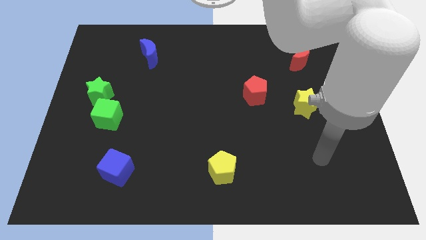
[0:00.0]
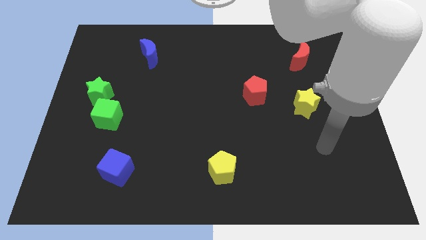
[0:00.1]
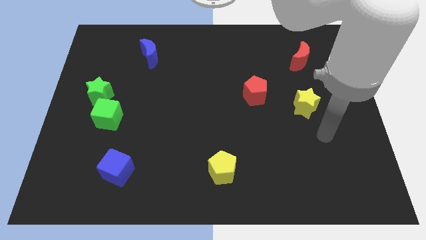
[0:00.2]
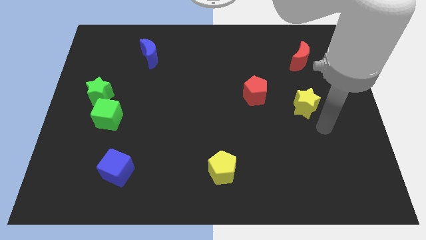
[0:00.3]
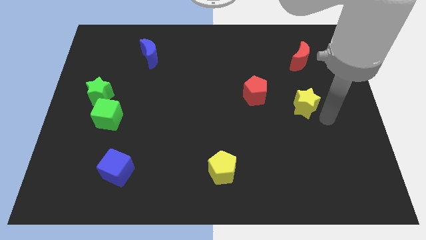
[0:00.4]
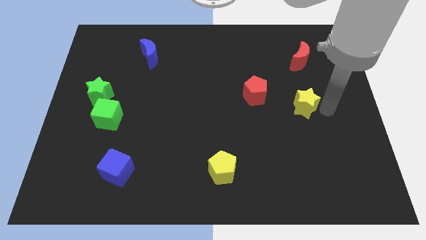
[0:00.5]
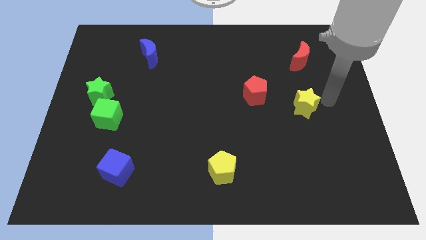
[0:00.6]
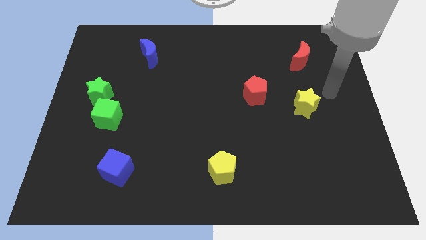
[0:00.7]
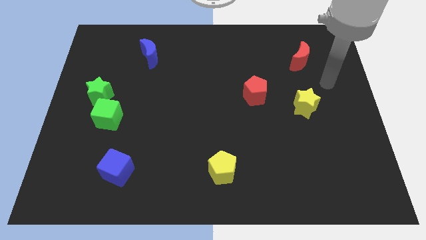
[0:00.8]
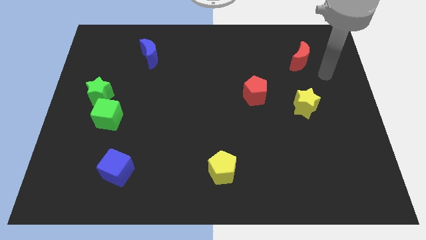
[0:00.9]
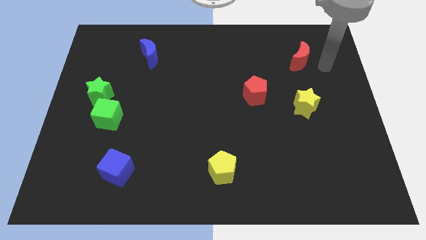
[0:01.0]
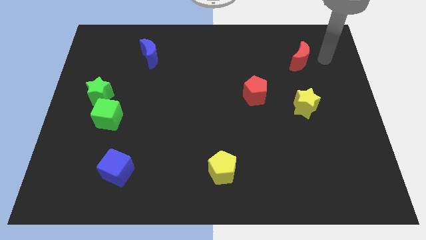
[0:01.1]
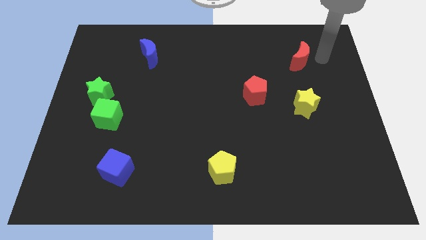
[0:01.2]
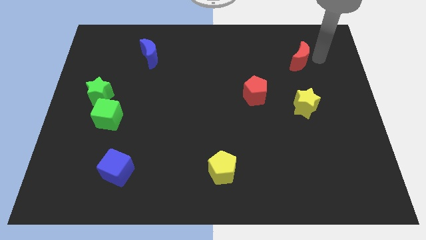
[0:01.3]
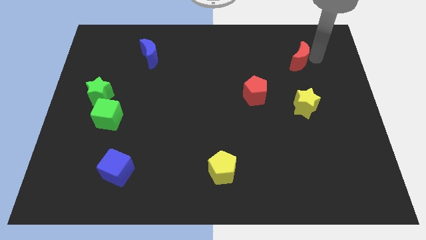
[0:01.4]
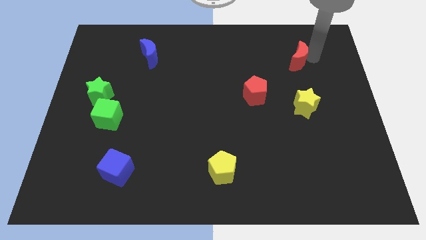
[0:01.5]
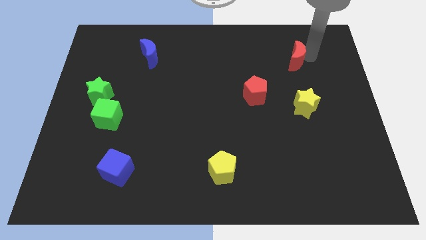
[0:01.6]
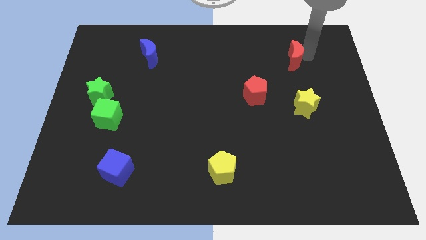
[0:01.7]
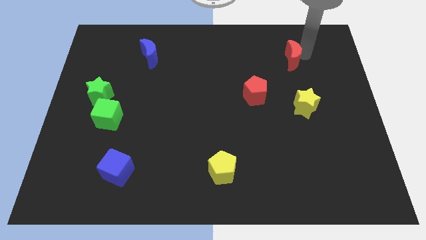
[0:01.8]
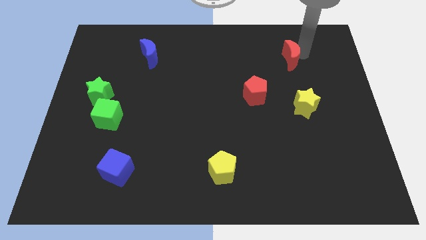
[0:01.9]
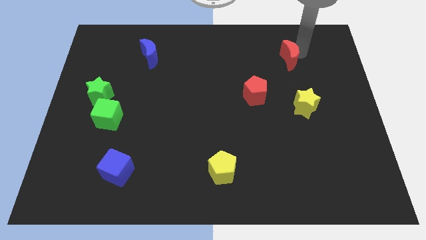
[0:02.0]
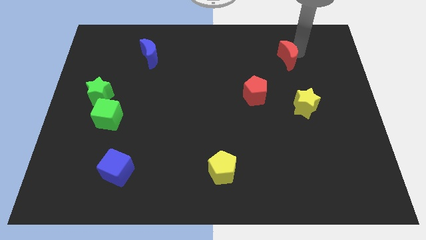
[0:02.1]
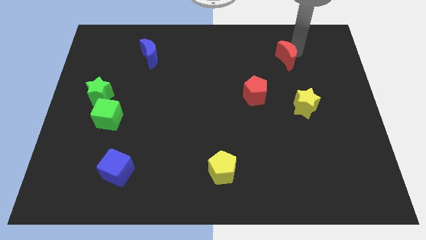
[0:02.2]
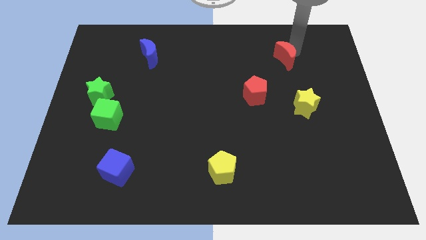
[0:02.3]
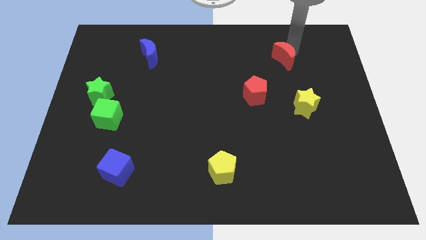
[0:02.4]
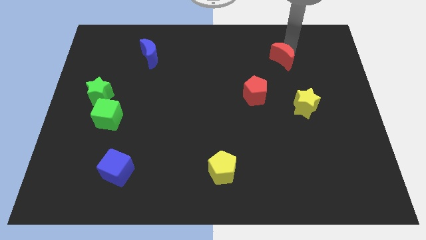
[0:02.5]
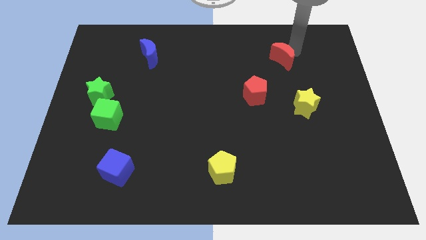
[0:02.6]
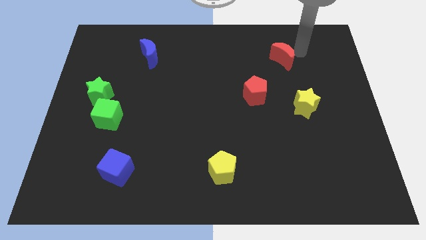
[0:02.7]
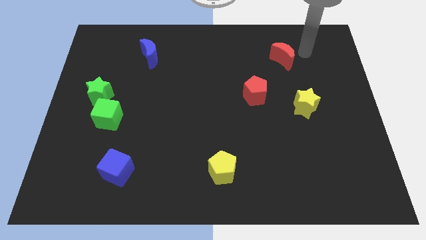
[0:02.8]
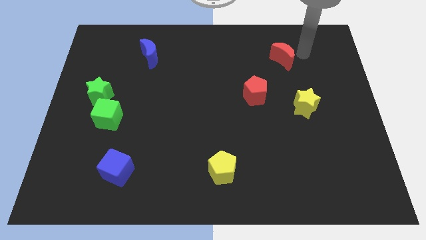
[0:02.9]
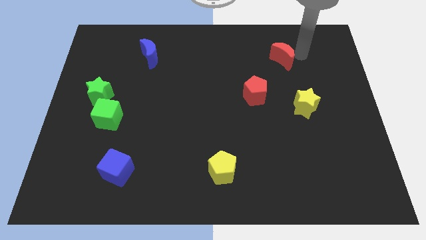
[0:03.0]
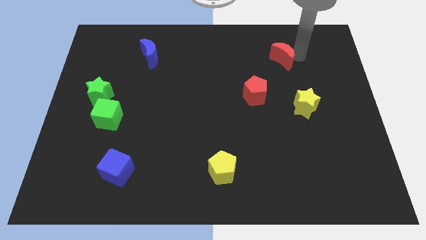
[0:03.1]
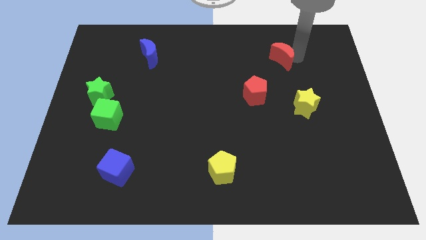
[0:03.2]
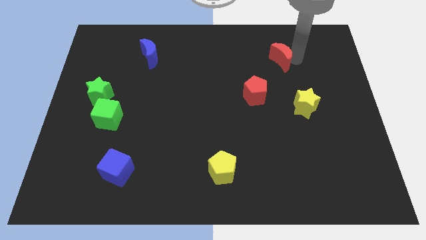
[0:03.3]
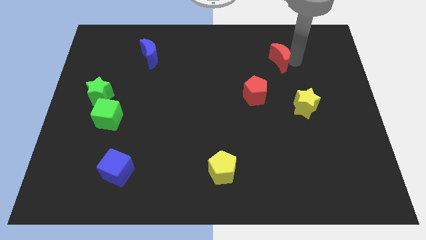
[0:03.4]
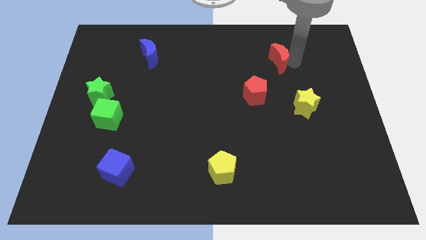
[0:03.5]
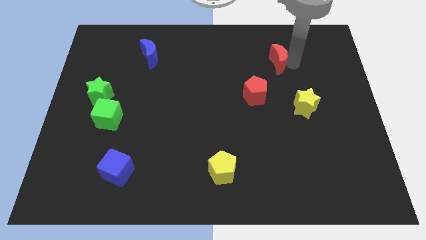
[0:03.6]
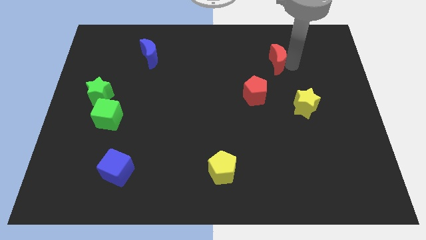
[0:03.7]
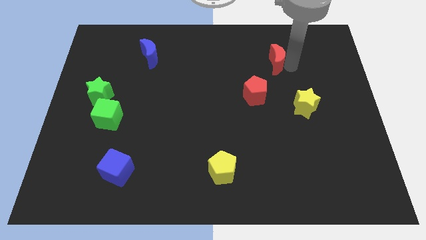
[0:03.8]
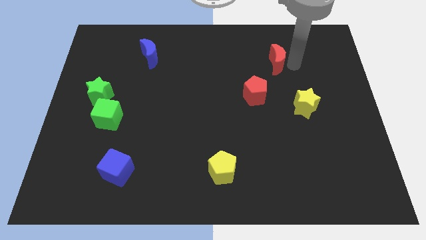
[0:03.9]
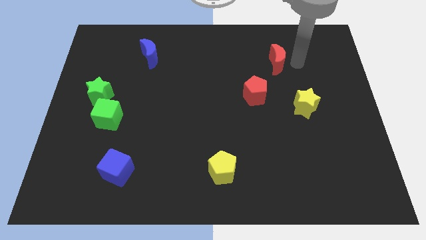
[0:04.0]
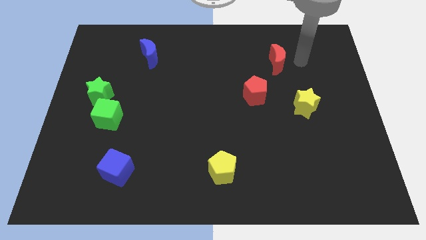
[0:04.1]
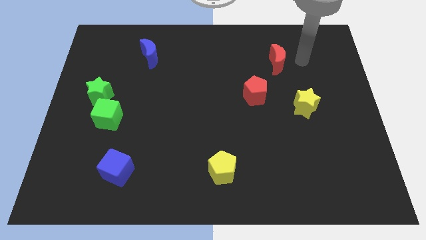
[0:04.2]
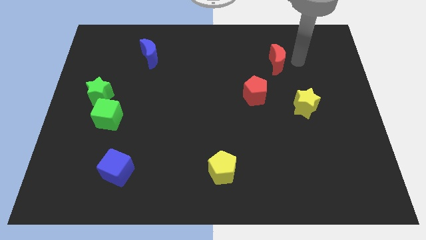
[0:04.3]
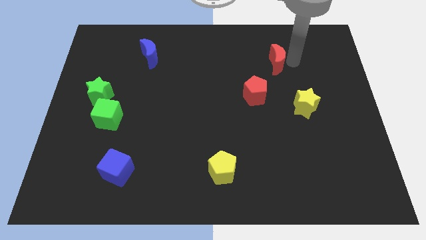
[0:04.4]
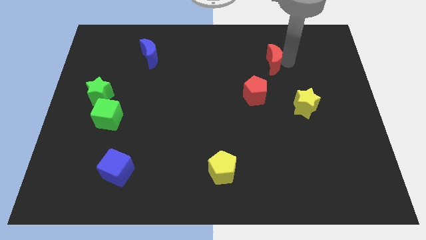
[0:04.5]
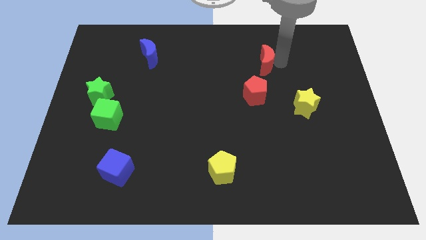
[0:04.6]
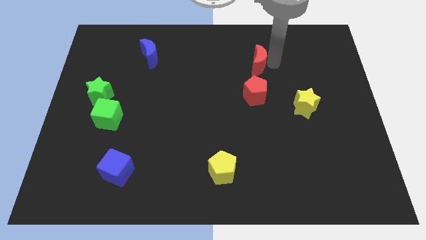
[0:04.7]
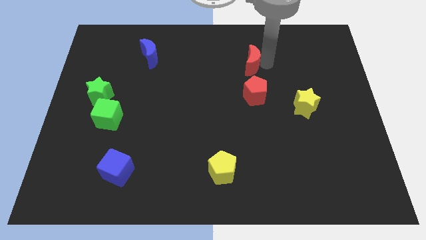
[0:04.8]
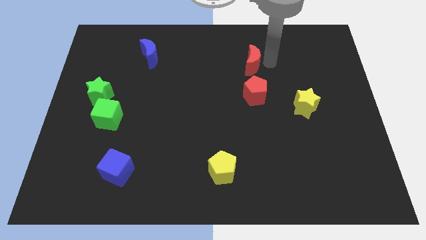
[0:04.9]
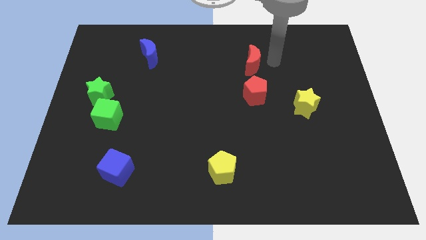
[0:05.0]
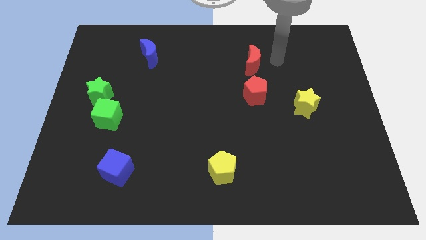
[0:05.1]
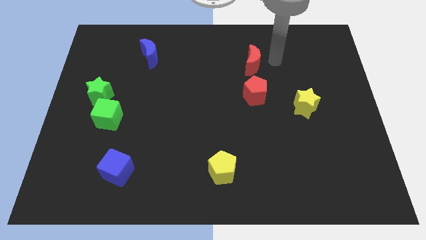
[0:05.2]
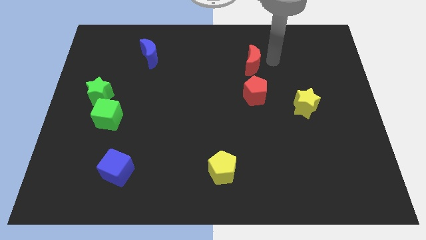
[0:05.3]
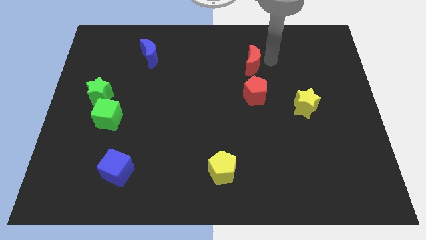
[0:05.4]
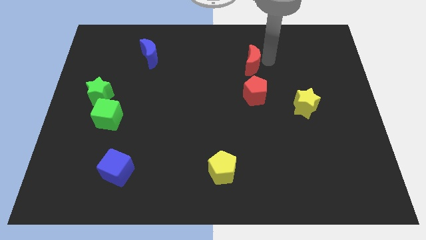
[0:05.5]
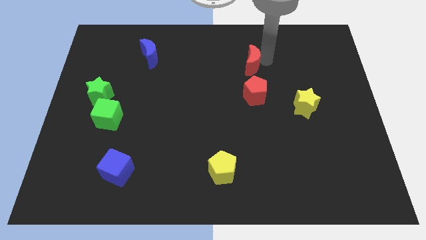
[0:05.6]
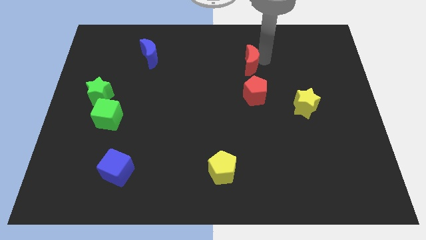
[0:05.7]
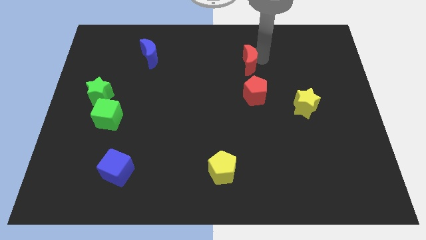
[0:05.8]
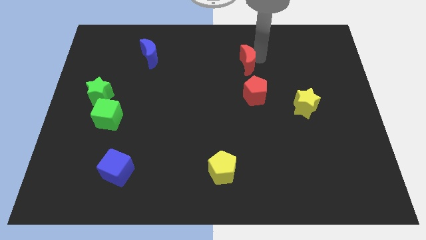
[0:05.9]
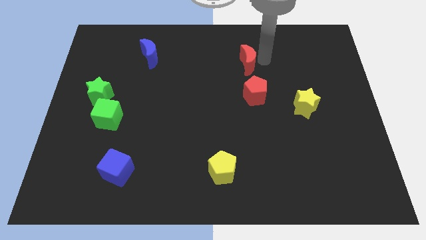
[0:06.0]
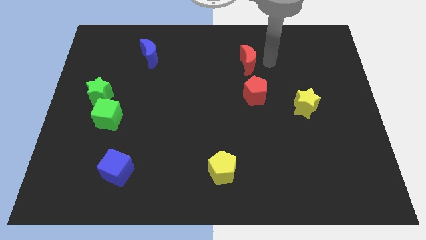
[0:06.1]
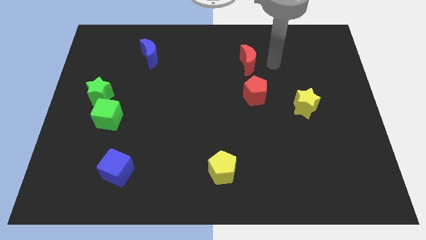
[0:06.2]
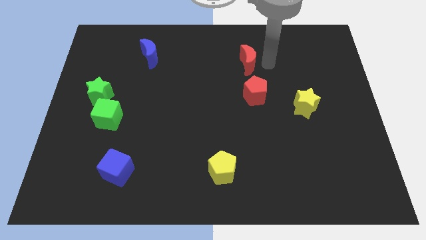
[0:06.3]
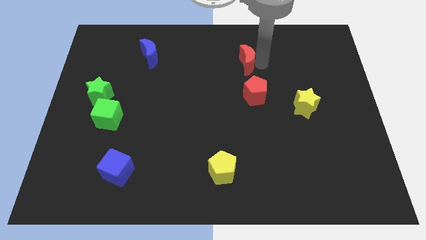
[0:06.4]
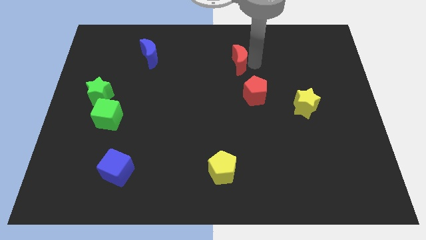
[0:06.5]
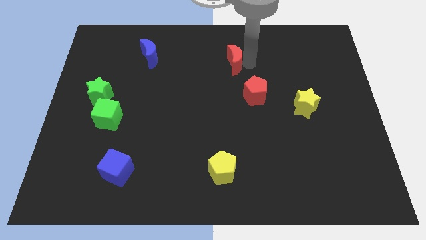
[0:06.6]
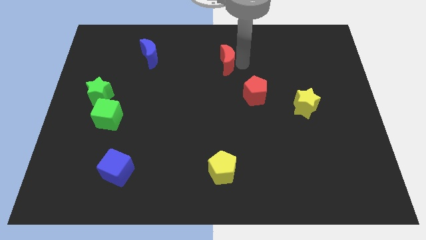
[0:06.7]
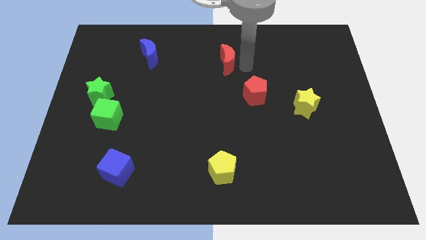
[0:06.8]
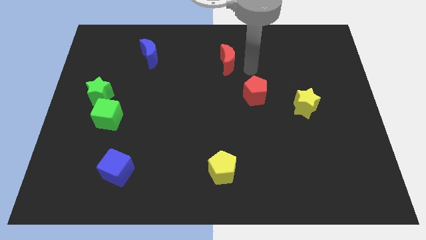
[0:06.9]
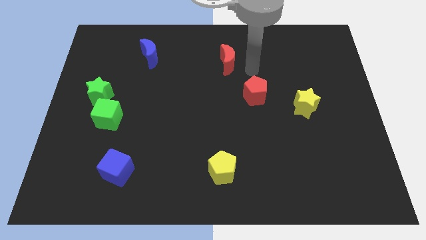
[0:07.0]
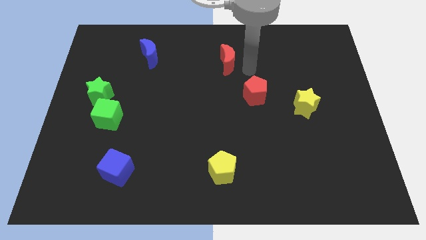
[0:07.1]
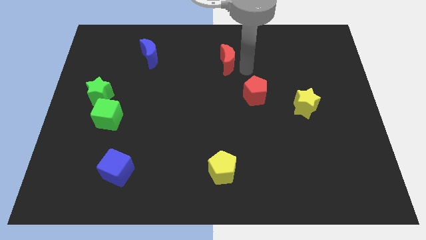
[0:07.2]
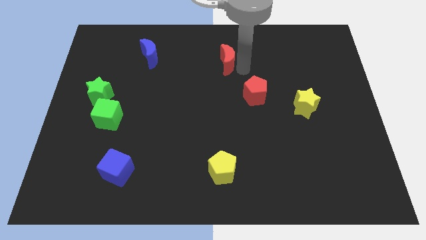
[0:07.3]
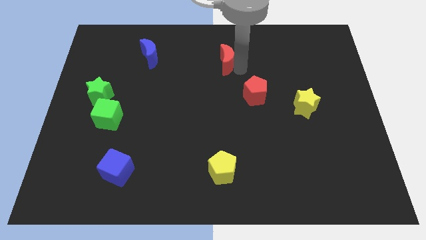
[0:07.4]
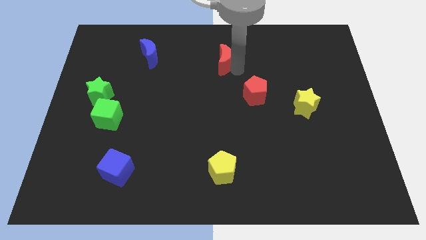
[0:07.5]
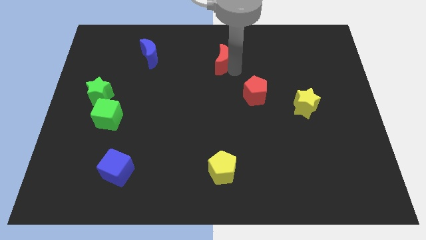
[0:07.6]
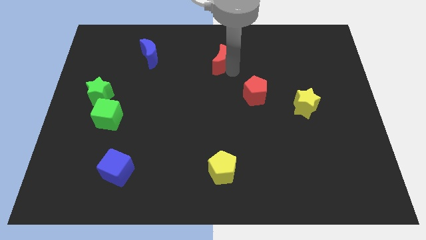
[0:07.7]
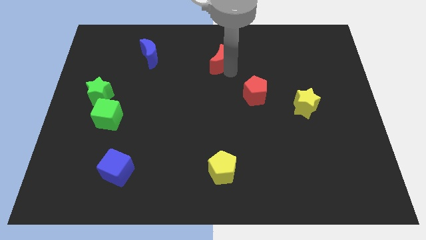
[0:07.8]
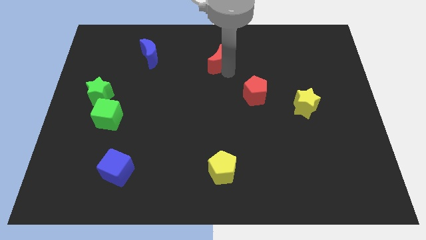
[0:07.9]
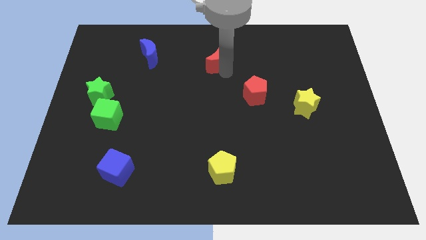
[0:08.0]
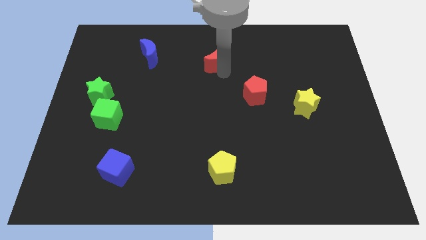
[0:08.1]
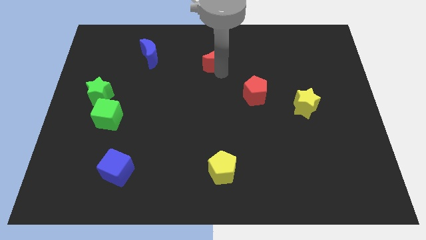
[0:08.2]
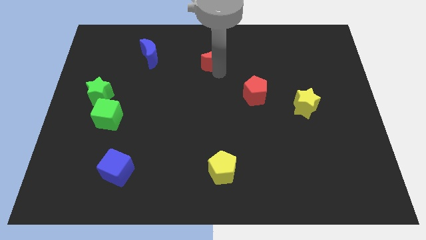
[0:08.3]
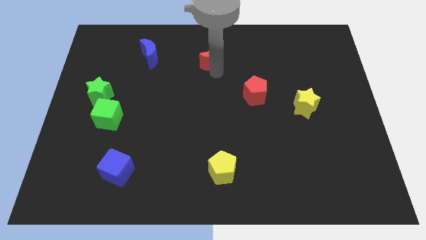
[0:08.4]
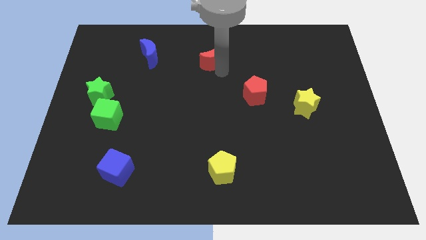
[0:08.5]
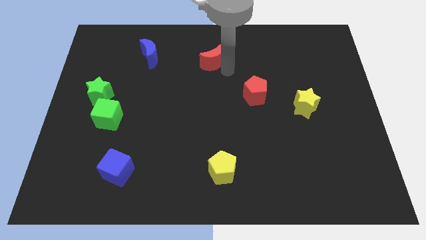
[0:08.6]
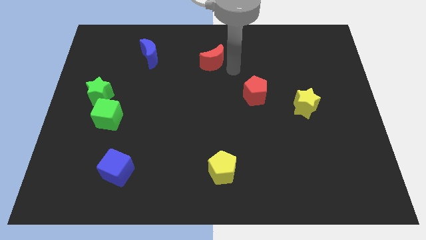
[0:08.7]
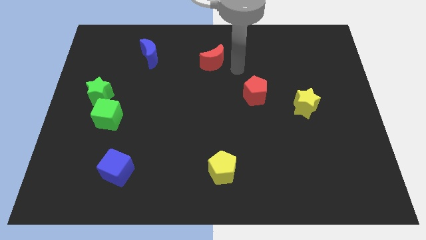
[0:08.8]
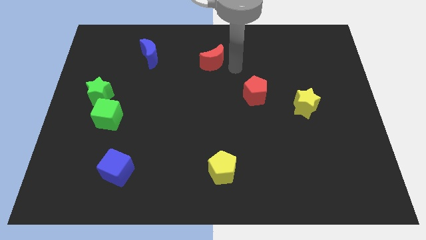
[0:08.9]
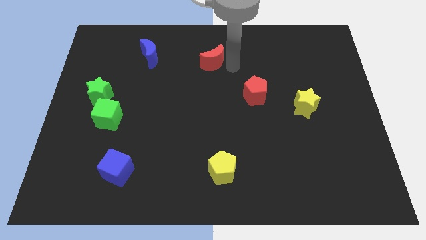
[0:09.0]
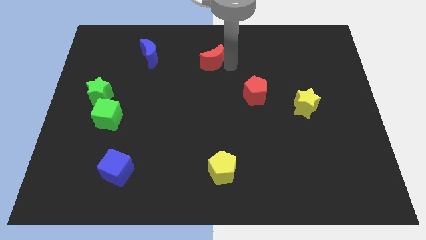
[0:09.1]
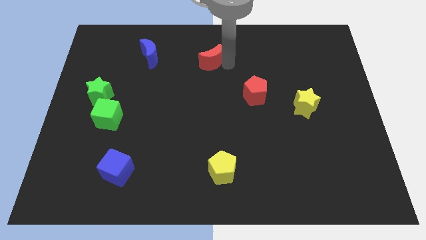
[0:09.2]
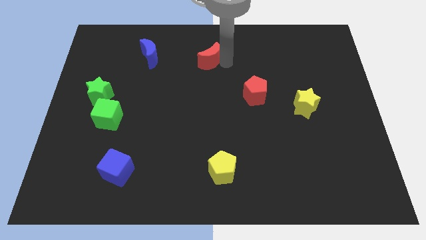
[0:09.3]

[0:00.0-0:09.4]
move the red moon just right of the blue moon
